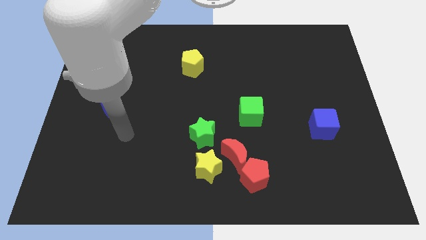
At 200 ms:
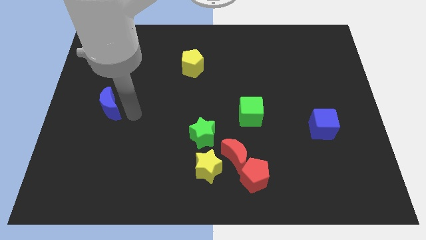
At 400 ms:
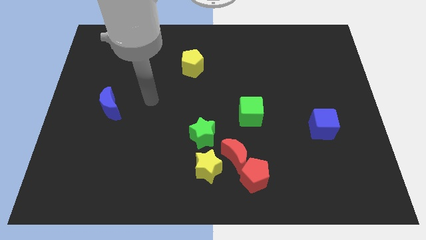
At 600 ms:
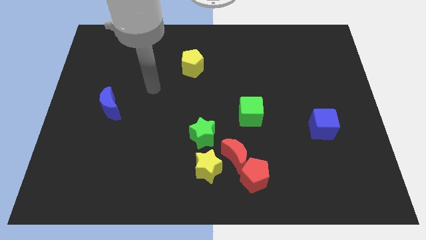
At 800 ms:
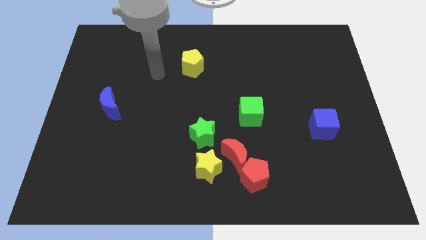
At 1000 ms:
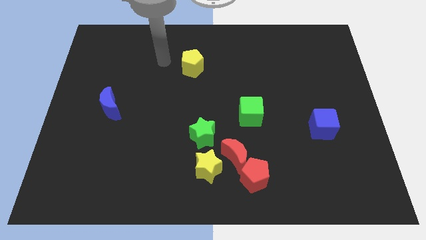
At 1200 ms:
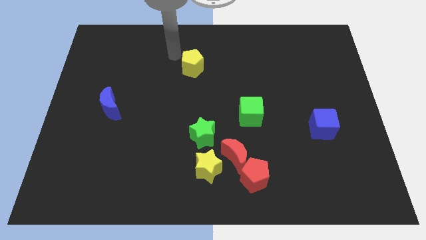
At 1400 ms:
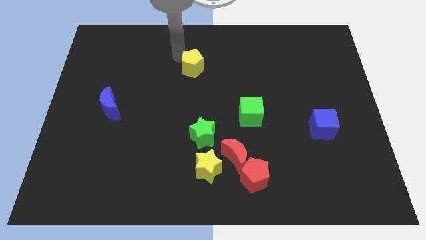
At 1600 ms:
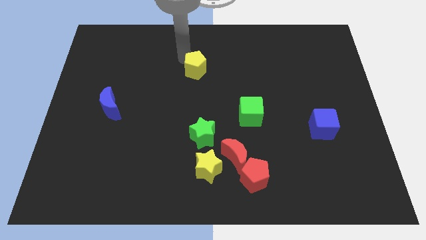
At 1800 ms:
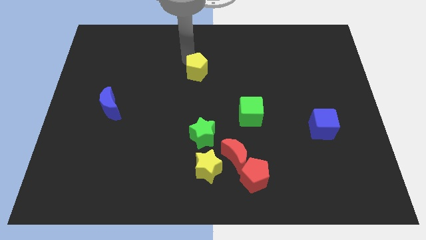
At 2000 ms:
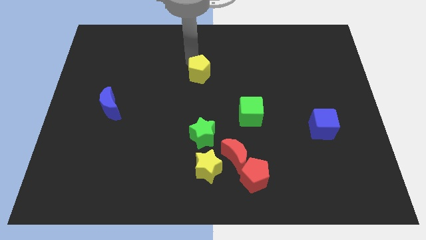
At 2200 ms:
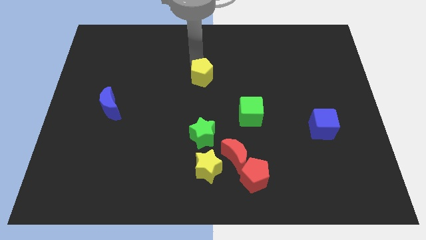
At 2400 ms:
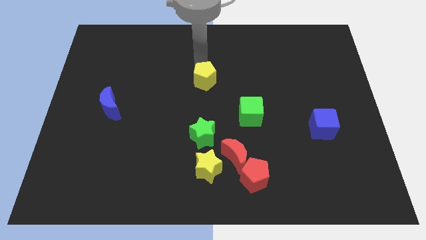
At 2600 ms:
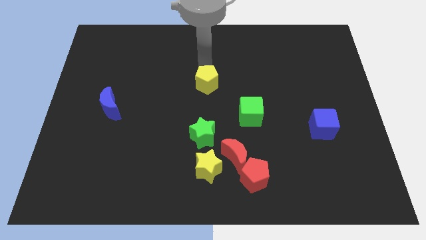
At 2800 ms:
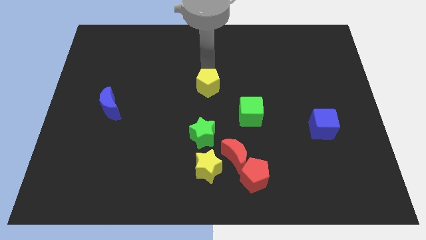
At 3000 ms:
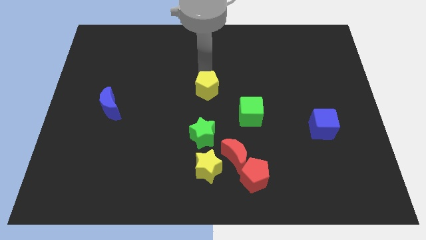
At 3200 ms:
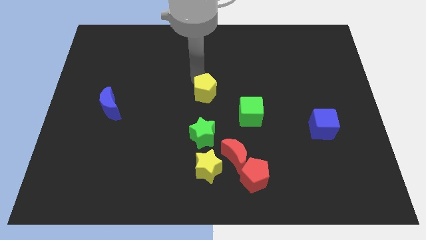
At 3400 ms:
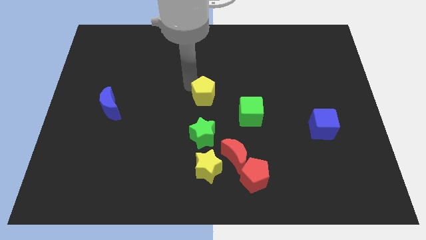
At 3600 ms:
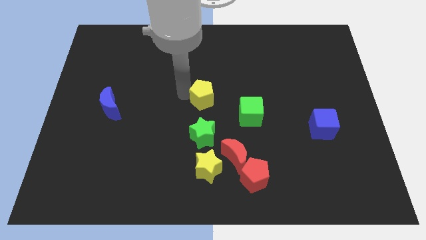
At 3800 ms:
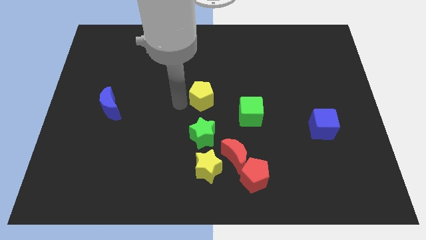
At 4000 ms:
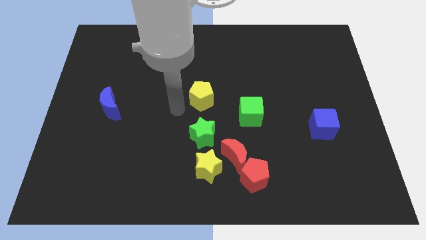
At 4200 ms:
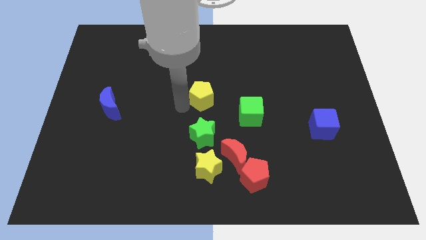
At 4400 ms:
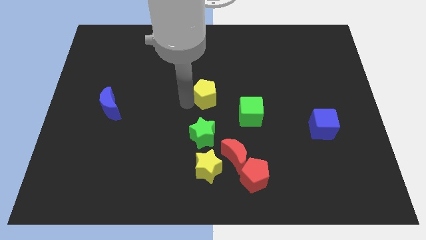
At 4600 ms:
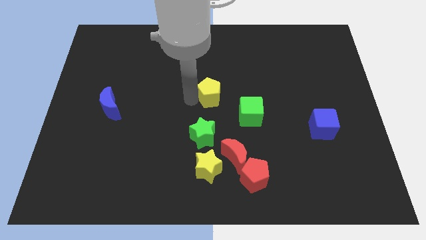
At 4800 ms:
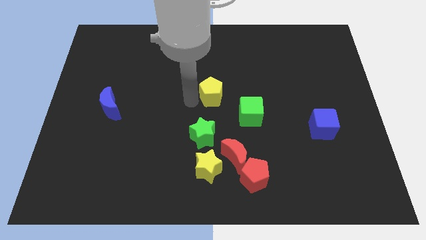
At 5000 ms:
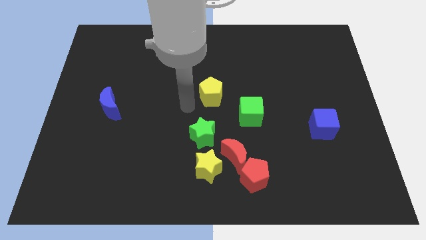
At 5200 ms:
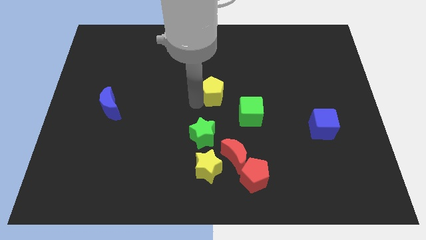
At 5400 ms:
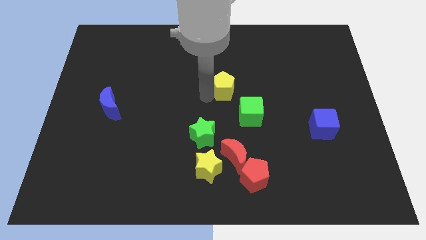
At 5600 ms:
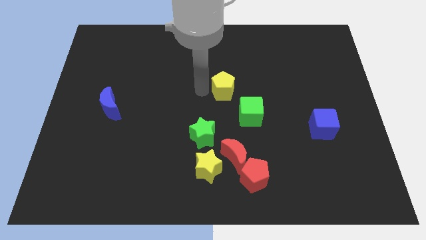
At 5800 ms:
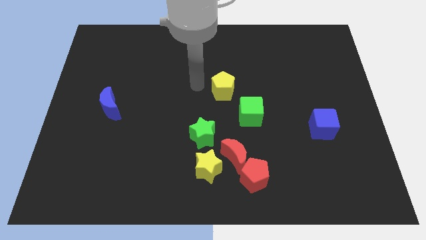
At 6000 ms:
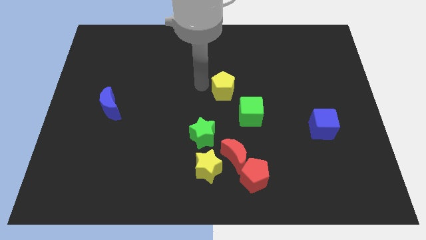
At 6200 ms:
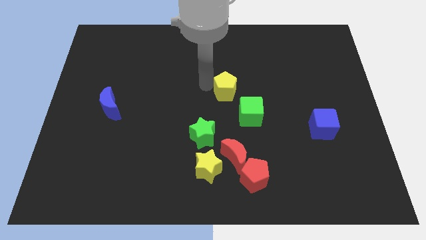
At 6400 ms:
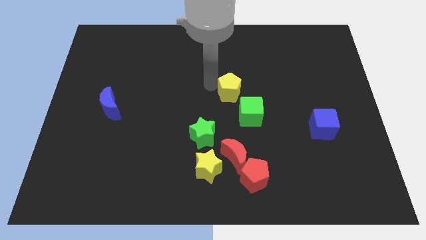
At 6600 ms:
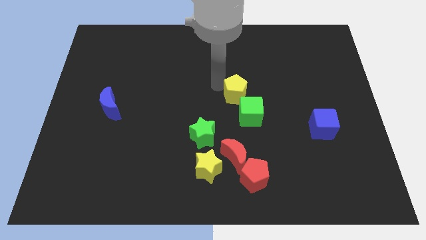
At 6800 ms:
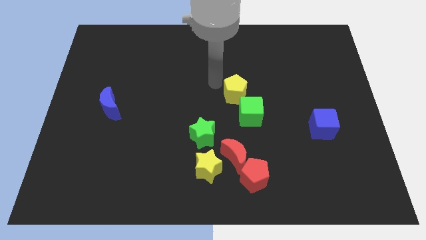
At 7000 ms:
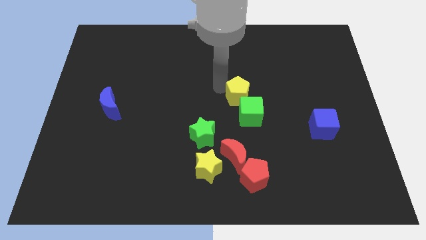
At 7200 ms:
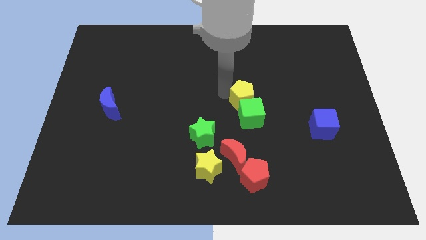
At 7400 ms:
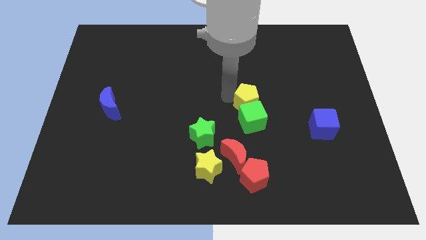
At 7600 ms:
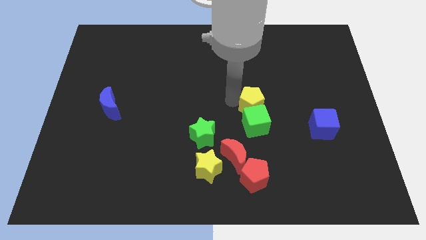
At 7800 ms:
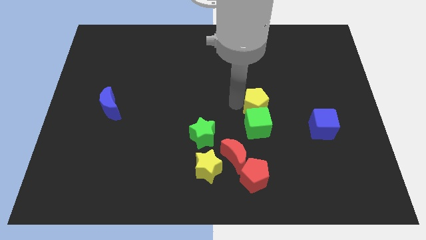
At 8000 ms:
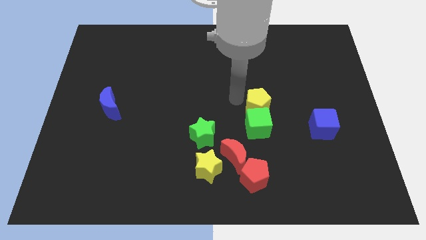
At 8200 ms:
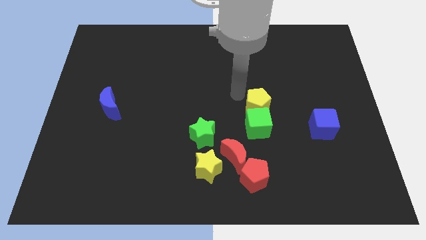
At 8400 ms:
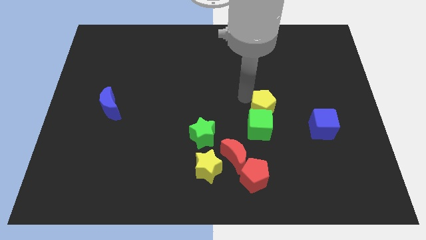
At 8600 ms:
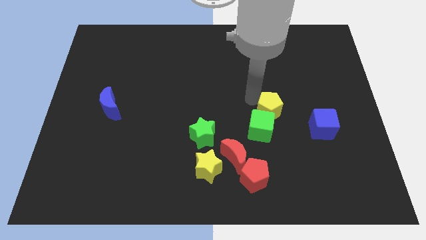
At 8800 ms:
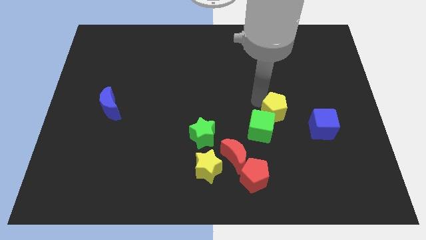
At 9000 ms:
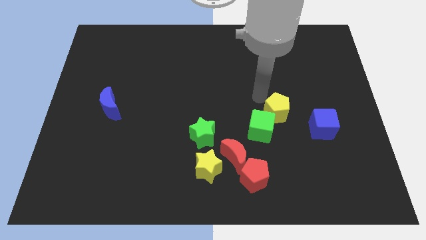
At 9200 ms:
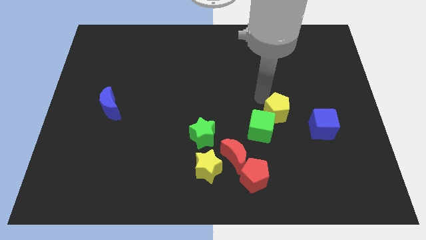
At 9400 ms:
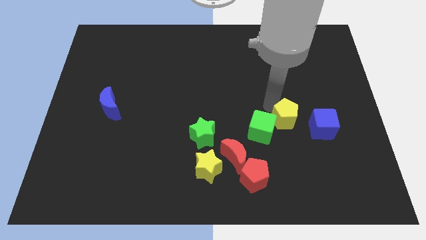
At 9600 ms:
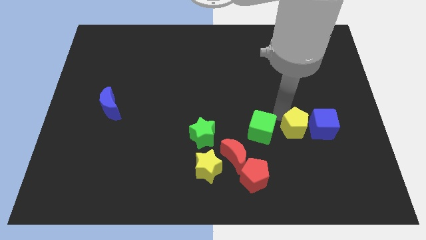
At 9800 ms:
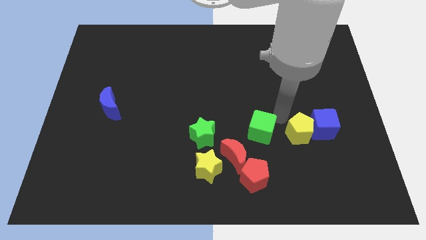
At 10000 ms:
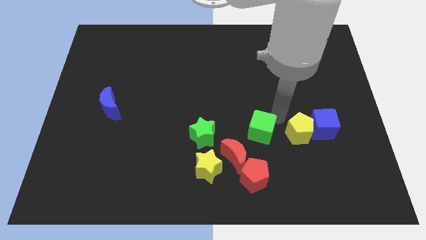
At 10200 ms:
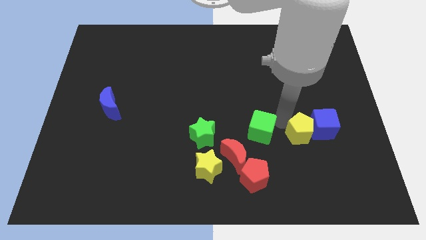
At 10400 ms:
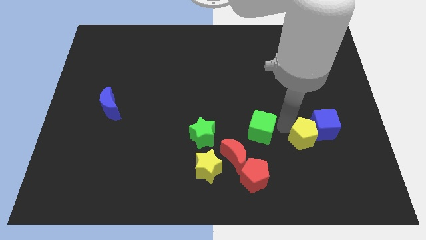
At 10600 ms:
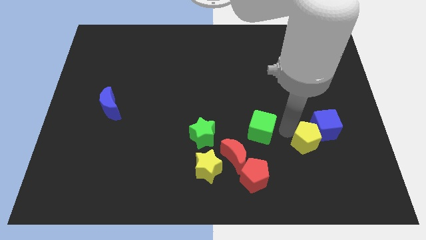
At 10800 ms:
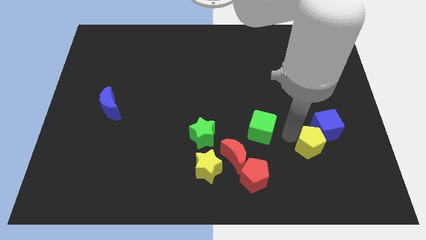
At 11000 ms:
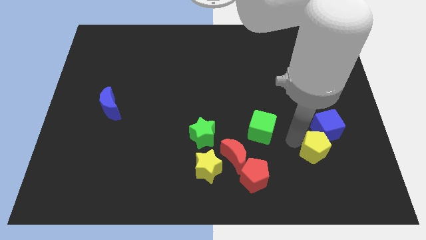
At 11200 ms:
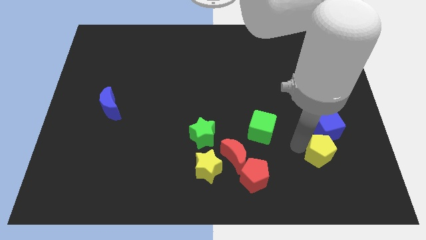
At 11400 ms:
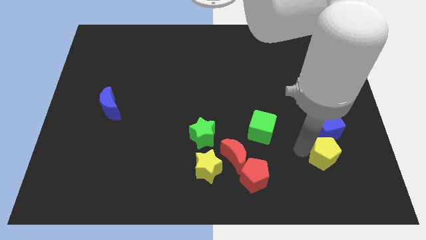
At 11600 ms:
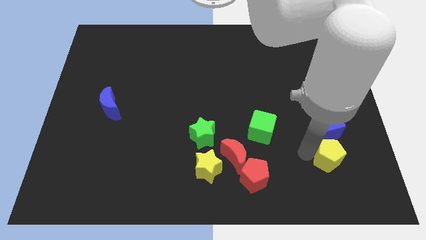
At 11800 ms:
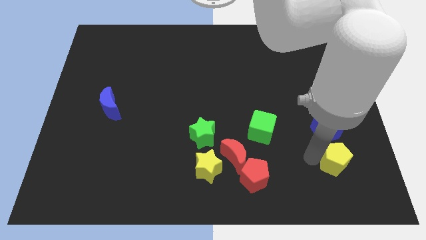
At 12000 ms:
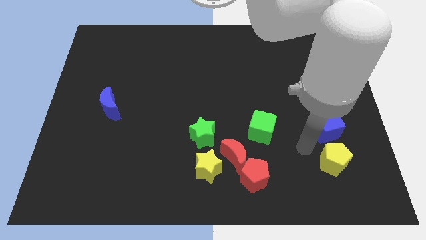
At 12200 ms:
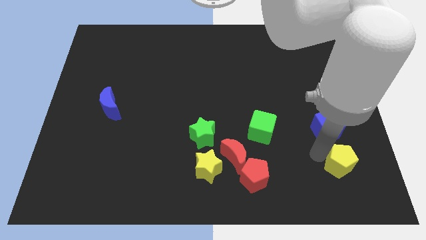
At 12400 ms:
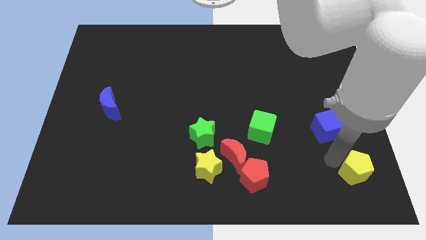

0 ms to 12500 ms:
move the yellow pentagon to the bottom right of the board
